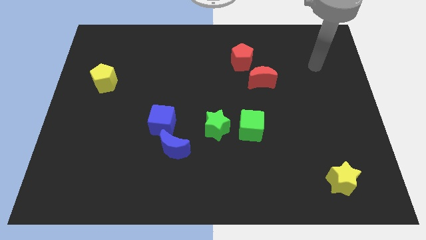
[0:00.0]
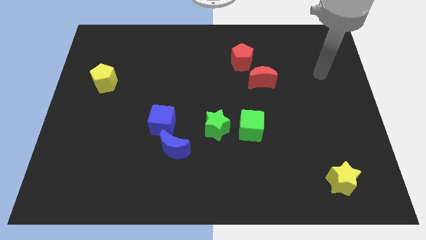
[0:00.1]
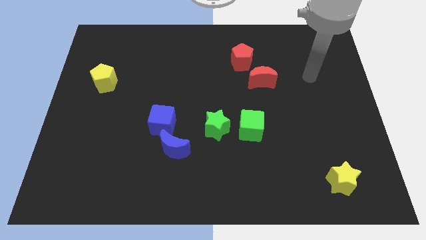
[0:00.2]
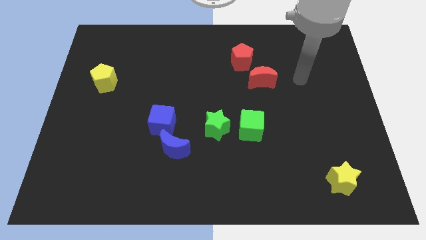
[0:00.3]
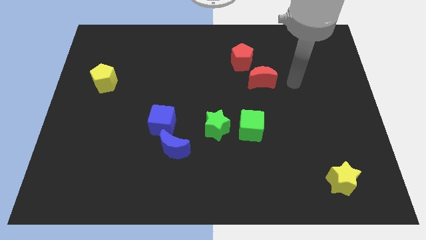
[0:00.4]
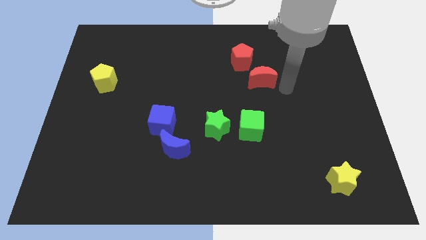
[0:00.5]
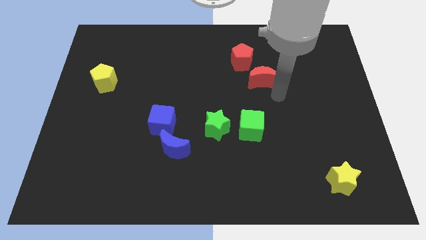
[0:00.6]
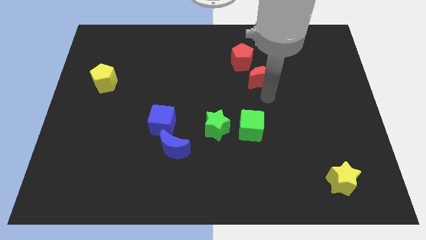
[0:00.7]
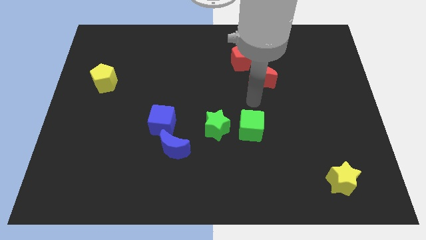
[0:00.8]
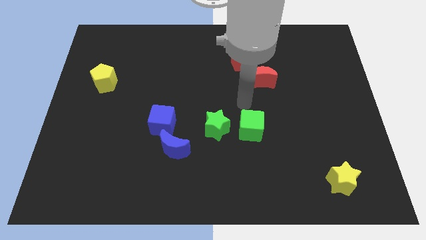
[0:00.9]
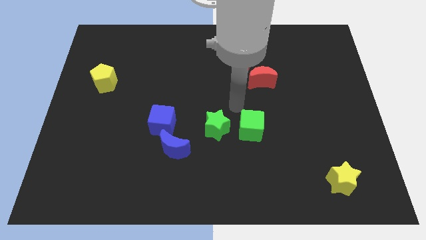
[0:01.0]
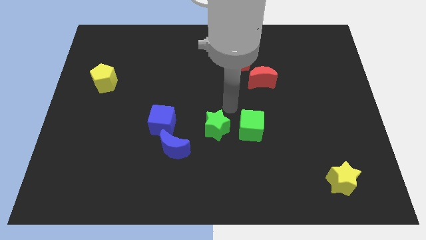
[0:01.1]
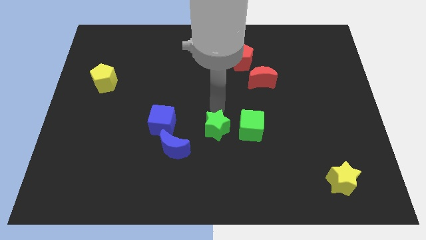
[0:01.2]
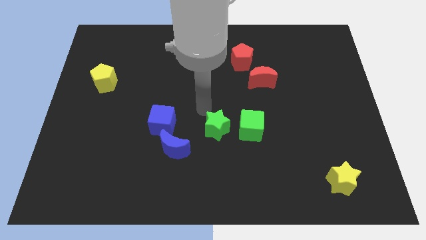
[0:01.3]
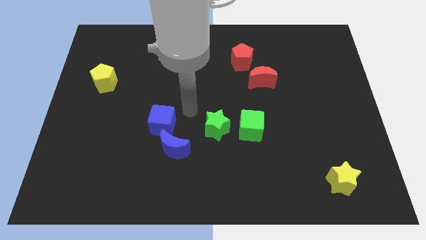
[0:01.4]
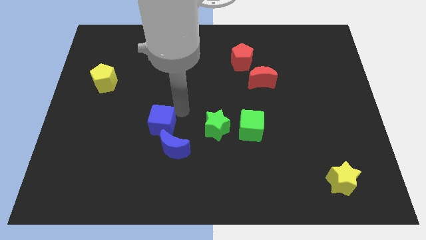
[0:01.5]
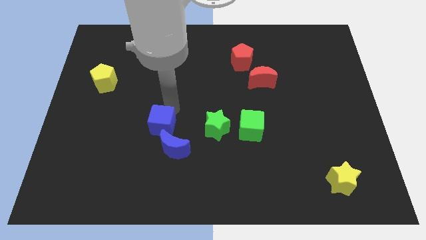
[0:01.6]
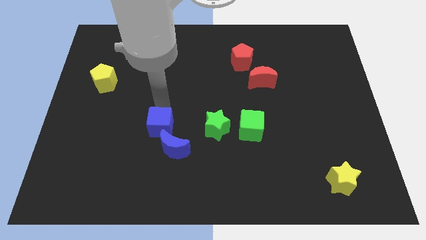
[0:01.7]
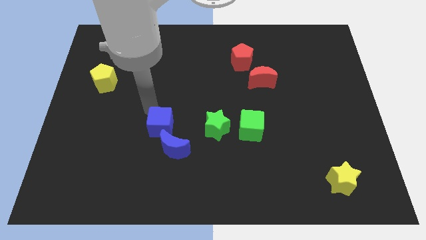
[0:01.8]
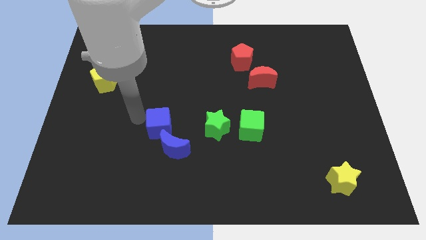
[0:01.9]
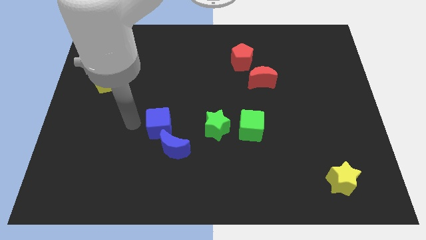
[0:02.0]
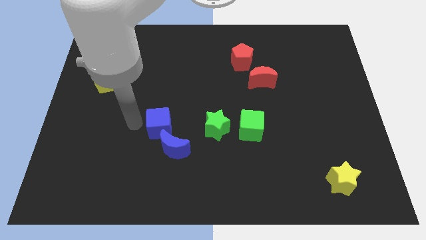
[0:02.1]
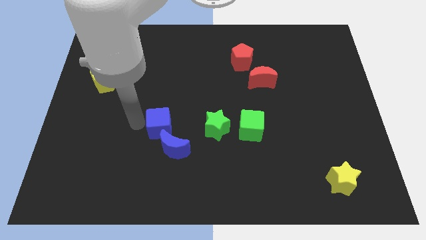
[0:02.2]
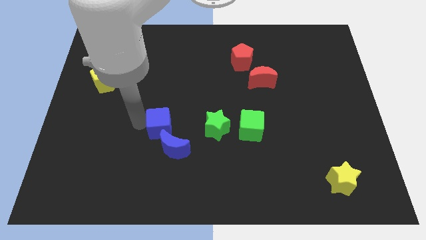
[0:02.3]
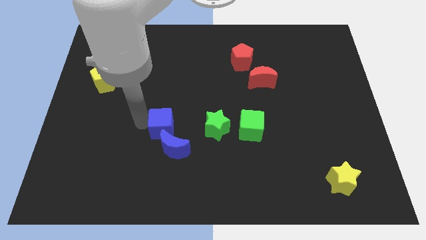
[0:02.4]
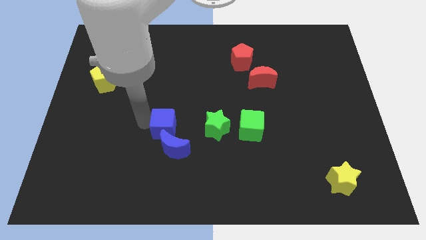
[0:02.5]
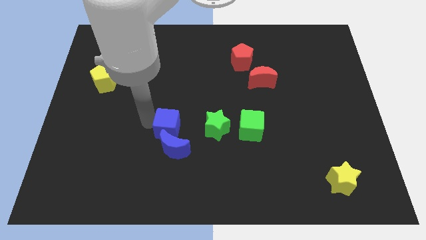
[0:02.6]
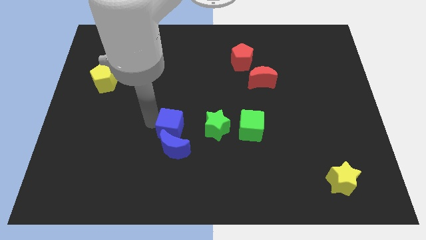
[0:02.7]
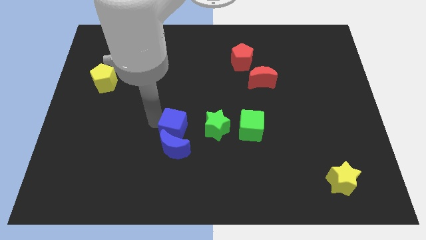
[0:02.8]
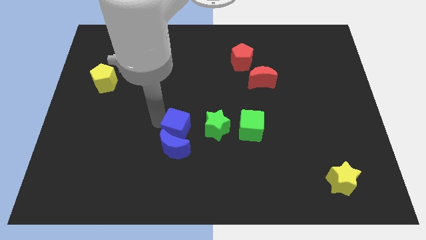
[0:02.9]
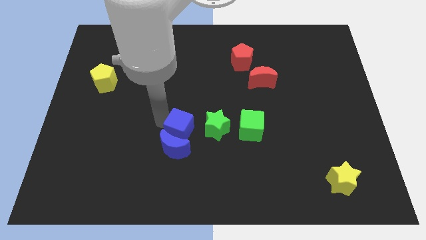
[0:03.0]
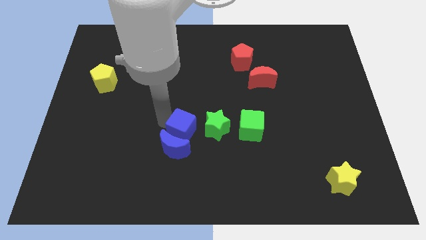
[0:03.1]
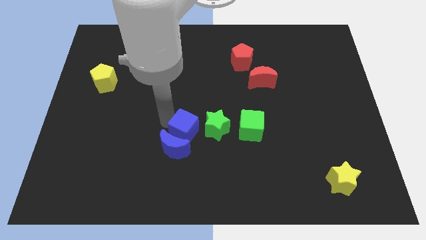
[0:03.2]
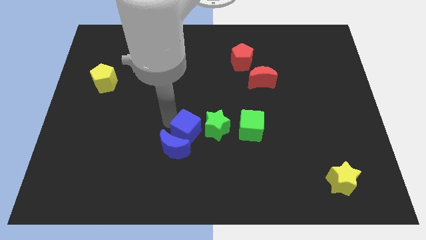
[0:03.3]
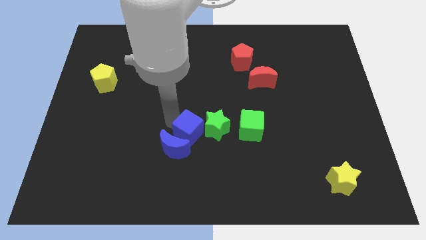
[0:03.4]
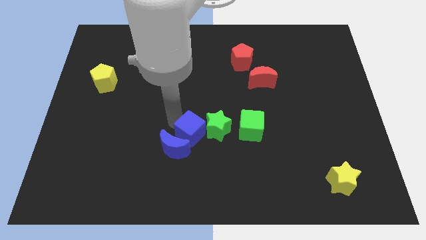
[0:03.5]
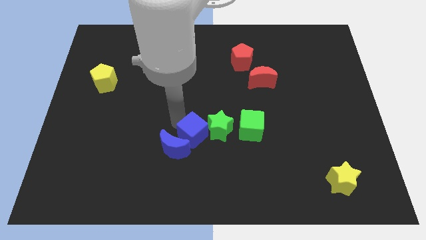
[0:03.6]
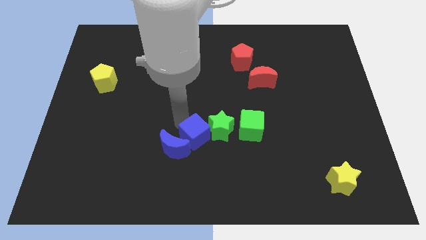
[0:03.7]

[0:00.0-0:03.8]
slightly push the blue cube down and then to the right

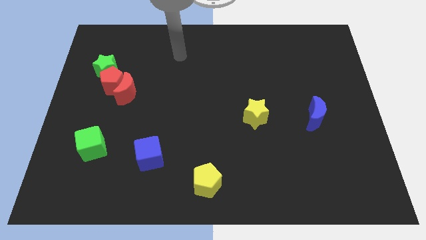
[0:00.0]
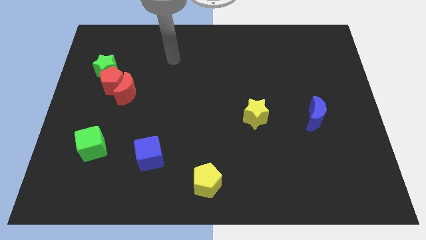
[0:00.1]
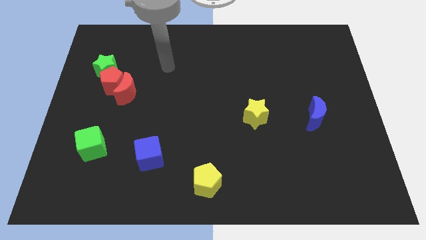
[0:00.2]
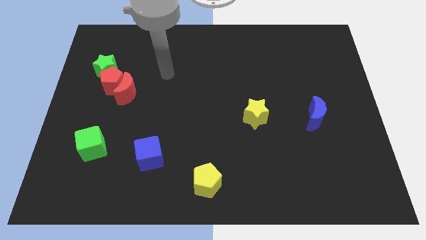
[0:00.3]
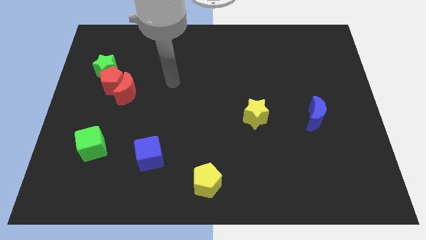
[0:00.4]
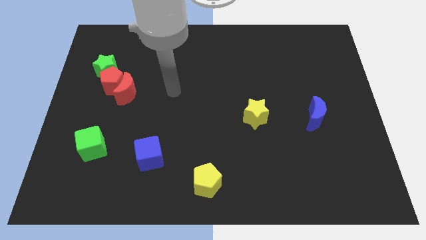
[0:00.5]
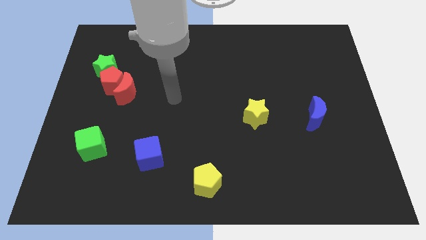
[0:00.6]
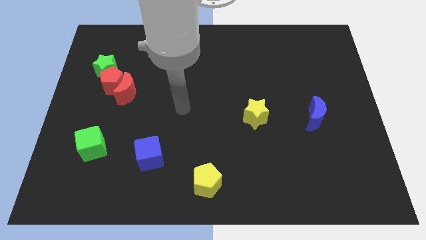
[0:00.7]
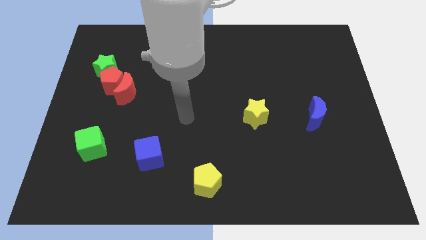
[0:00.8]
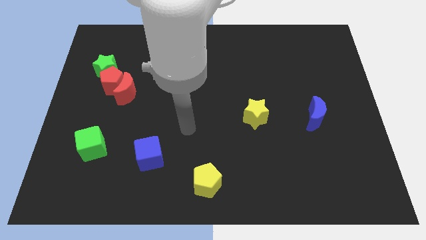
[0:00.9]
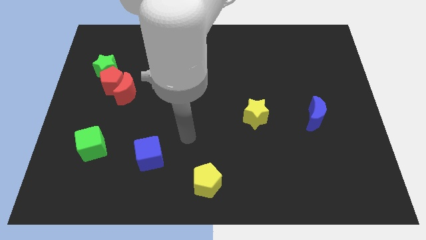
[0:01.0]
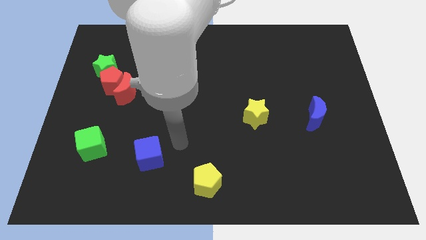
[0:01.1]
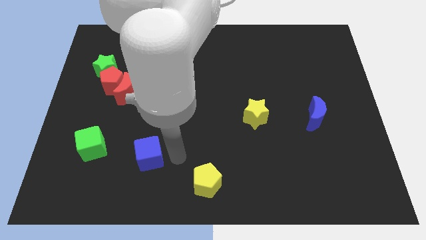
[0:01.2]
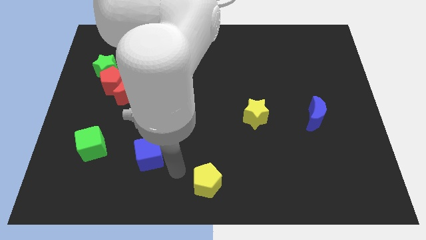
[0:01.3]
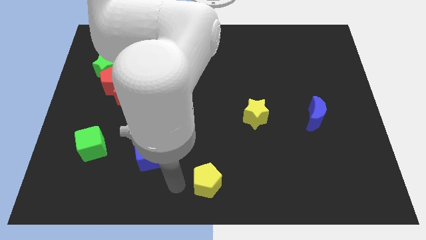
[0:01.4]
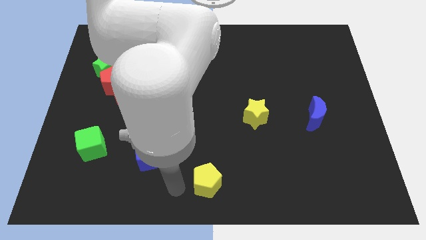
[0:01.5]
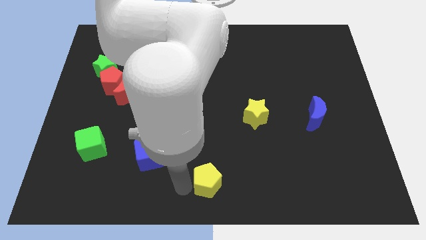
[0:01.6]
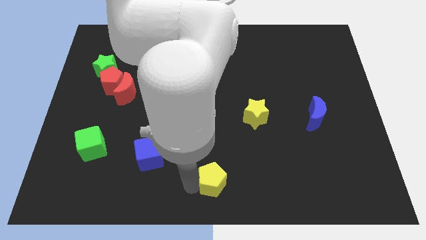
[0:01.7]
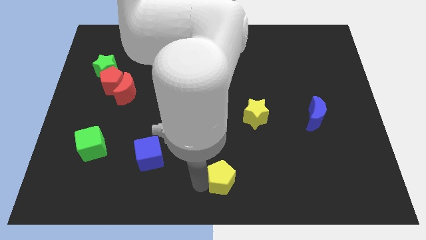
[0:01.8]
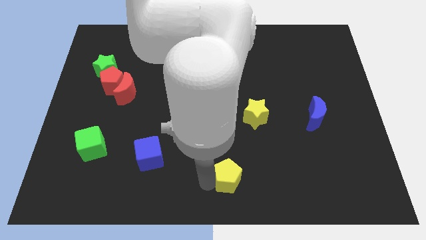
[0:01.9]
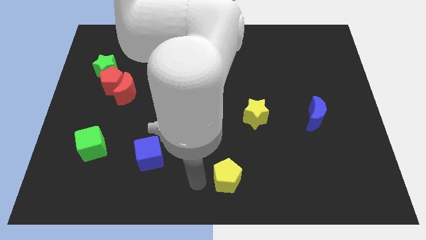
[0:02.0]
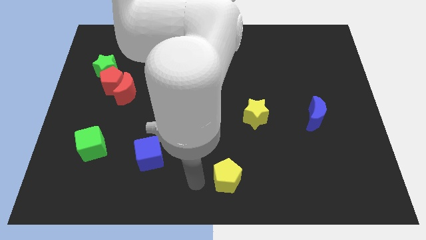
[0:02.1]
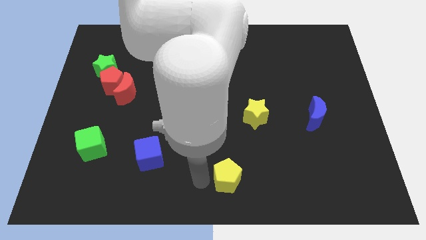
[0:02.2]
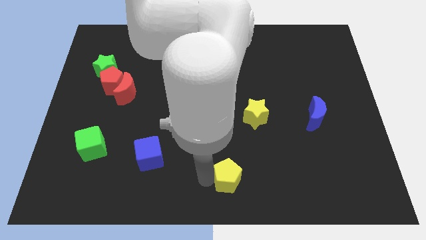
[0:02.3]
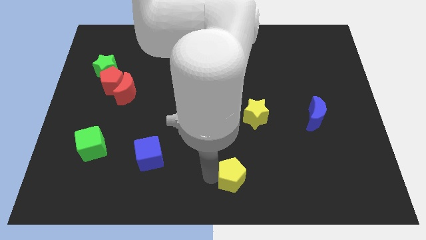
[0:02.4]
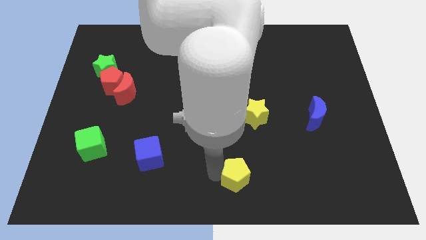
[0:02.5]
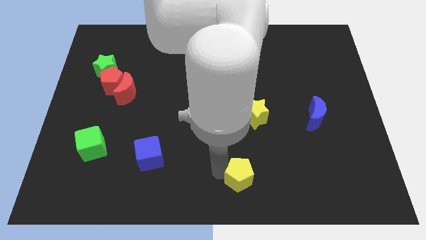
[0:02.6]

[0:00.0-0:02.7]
move the yellow pentagon right a bit

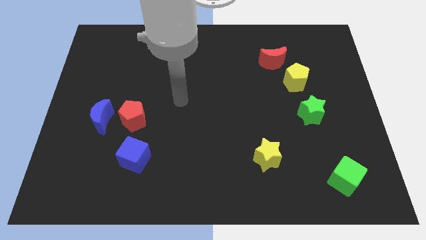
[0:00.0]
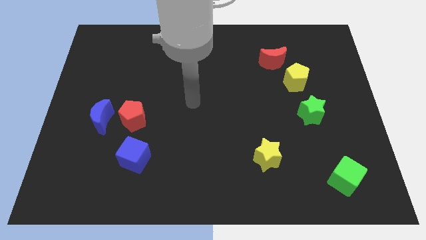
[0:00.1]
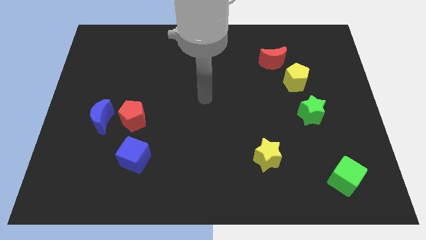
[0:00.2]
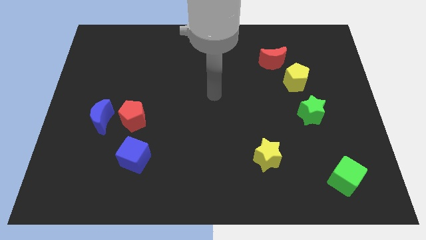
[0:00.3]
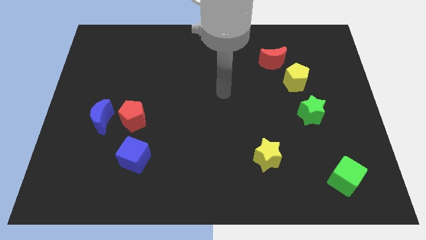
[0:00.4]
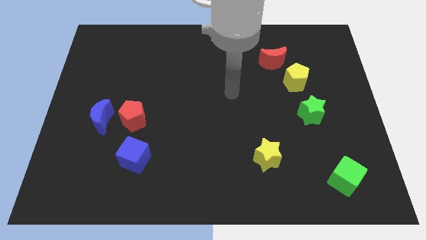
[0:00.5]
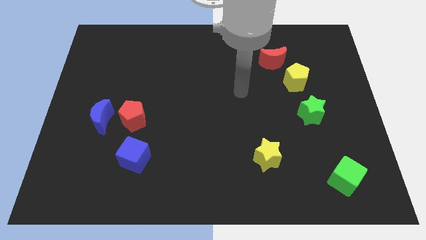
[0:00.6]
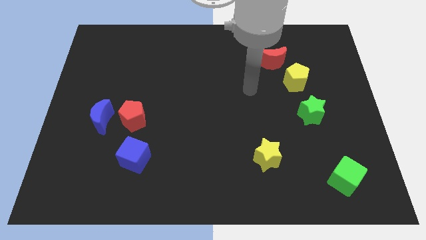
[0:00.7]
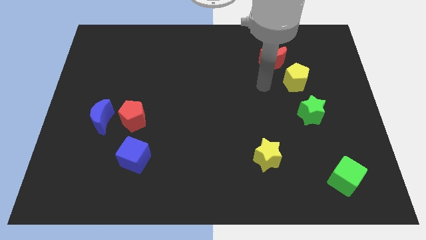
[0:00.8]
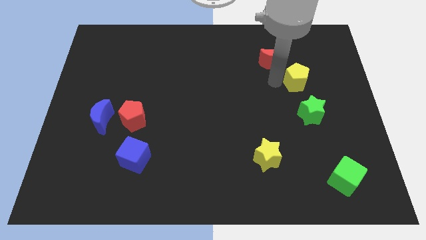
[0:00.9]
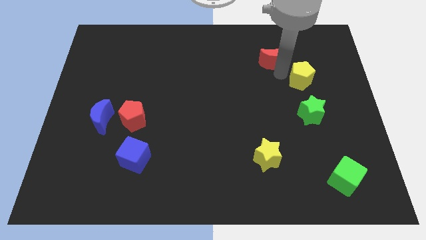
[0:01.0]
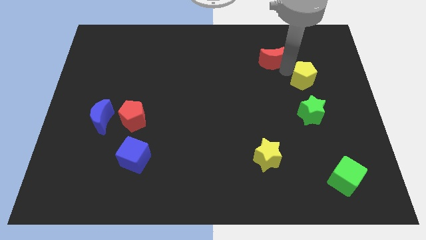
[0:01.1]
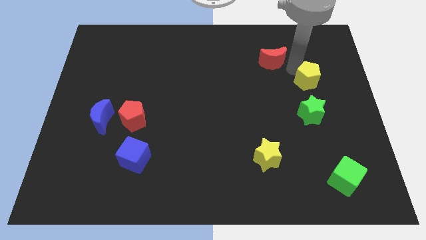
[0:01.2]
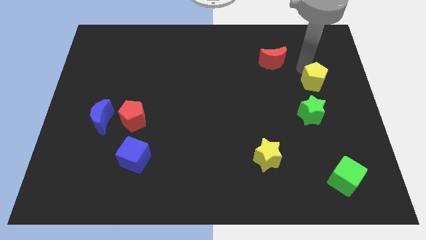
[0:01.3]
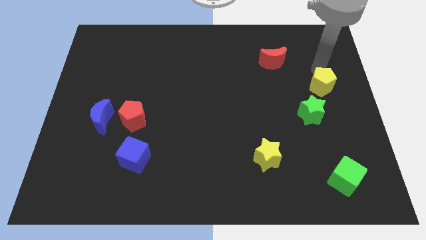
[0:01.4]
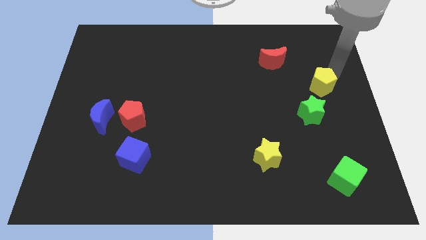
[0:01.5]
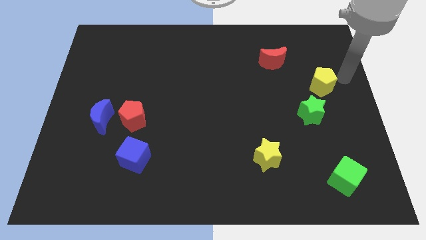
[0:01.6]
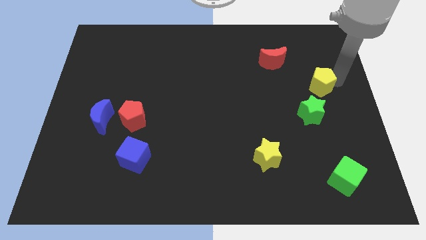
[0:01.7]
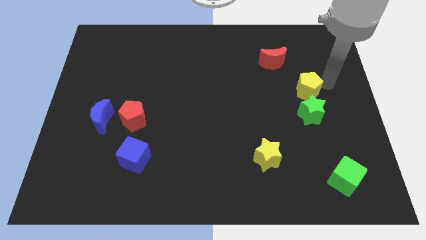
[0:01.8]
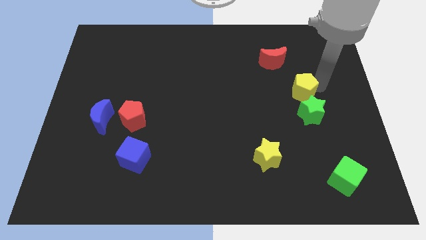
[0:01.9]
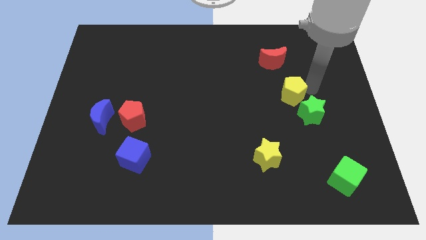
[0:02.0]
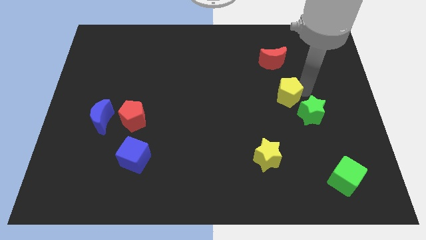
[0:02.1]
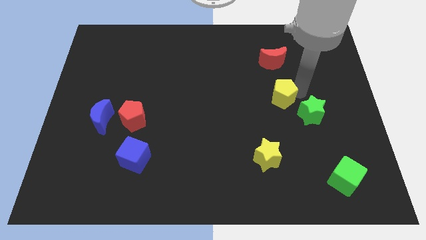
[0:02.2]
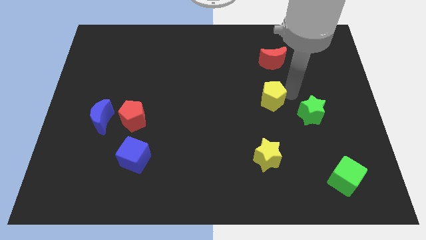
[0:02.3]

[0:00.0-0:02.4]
slightly slide the yellow pentagon down and left diagonally
